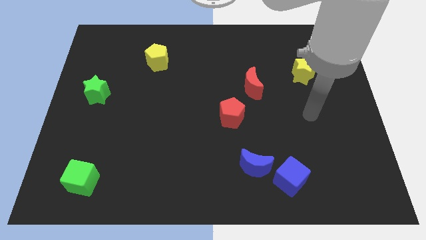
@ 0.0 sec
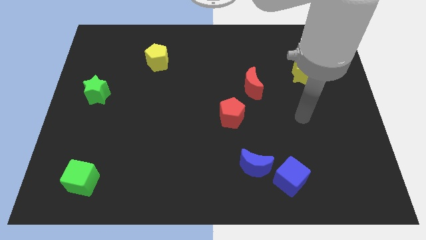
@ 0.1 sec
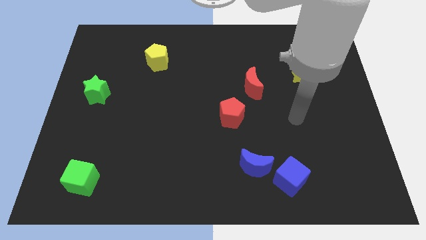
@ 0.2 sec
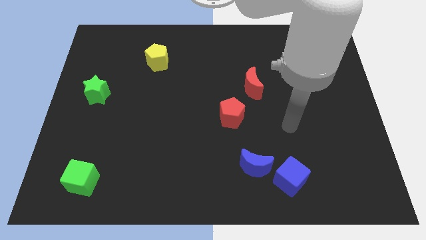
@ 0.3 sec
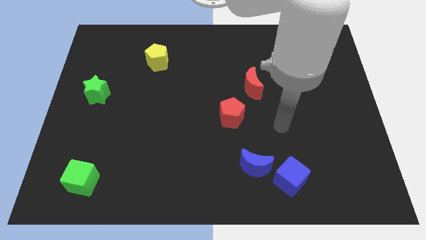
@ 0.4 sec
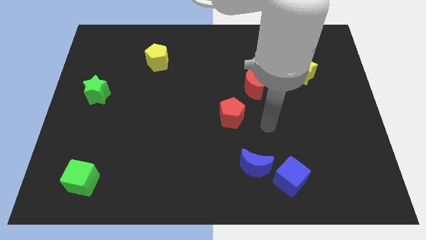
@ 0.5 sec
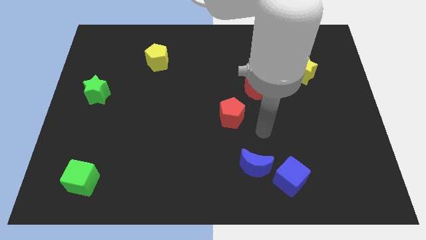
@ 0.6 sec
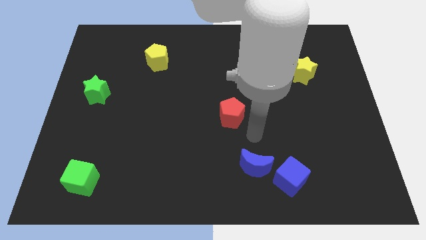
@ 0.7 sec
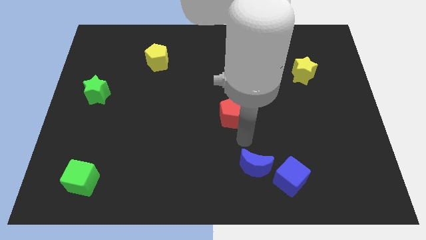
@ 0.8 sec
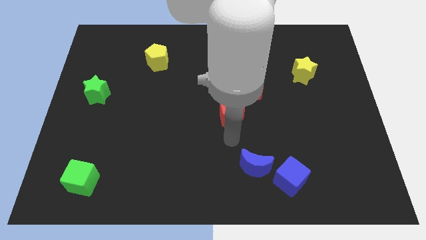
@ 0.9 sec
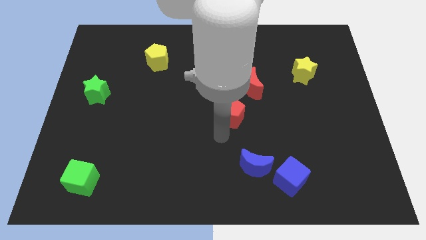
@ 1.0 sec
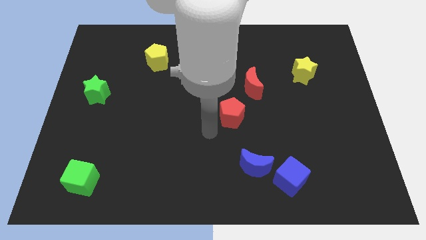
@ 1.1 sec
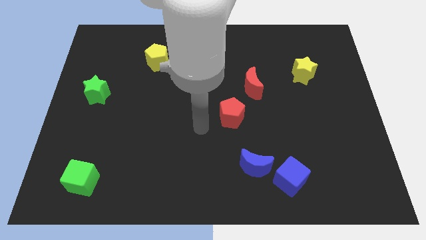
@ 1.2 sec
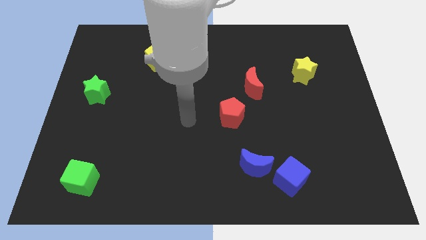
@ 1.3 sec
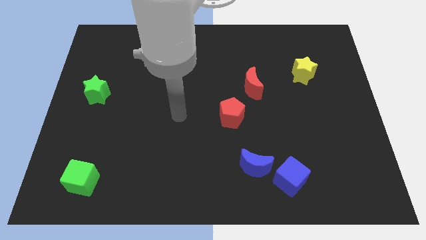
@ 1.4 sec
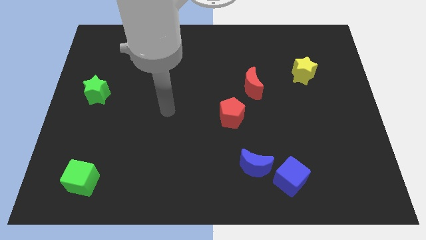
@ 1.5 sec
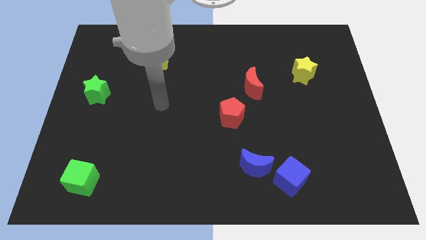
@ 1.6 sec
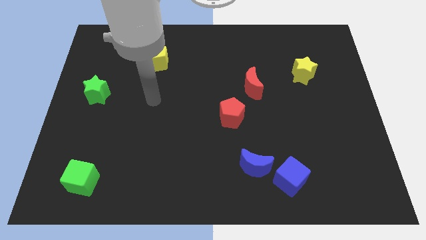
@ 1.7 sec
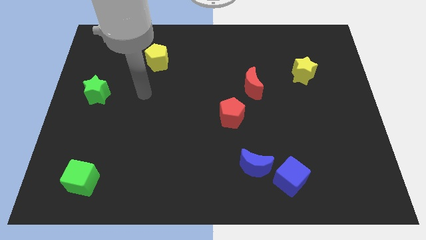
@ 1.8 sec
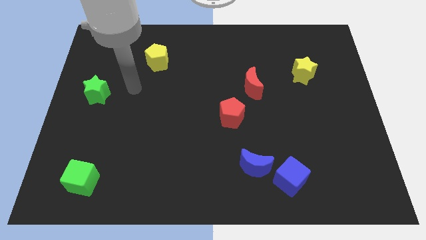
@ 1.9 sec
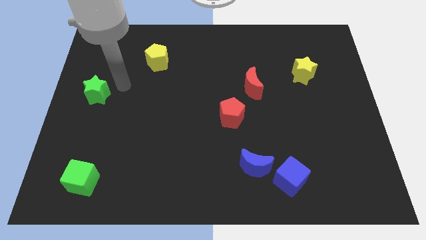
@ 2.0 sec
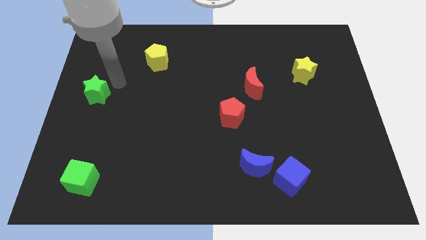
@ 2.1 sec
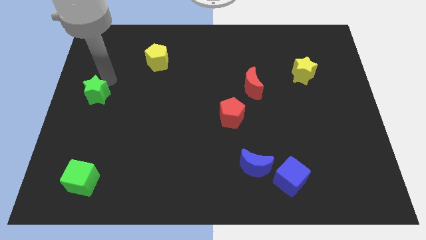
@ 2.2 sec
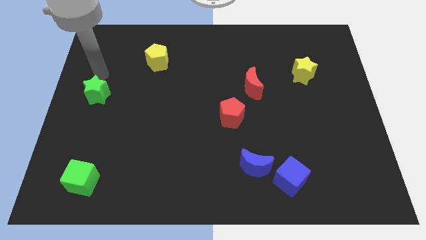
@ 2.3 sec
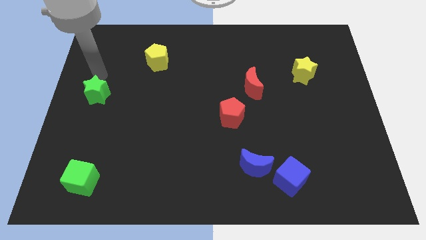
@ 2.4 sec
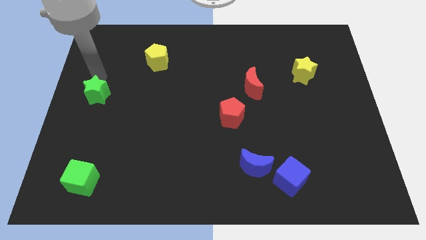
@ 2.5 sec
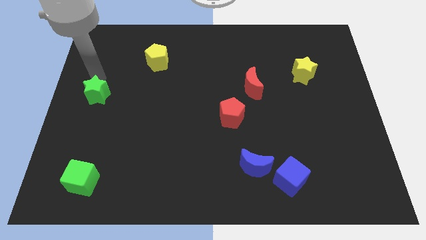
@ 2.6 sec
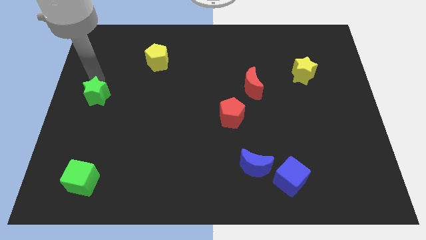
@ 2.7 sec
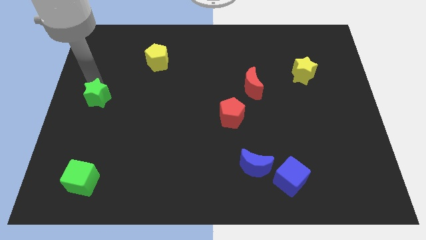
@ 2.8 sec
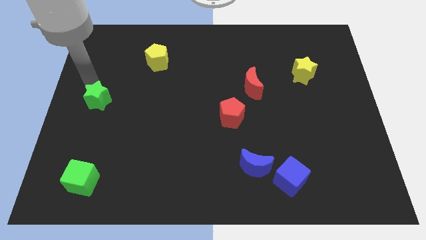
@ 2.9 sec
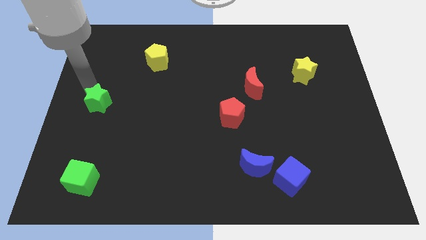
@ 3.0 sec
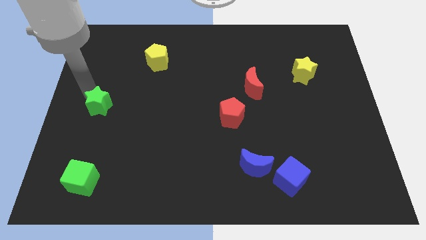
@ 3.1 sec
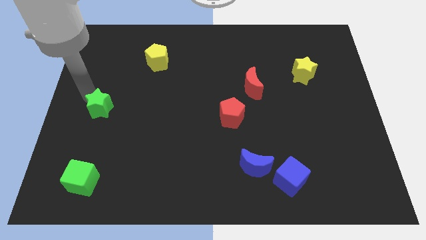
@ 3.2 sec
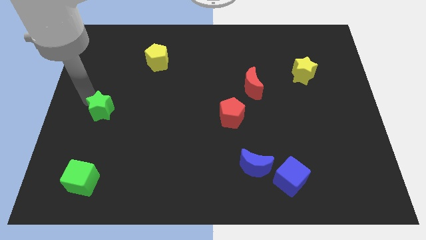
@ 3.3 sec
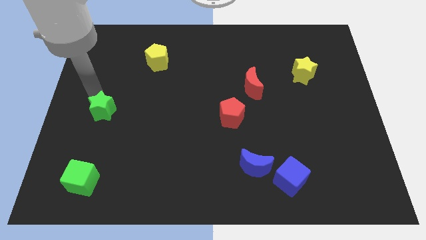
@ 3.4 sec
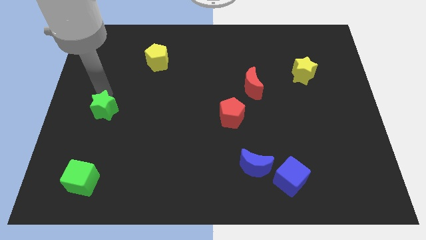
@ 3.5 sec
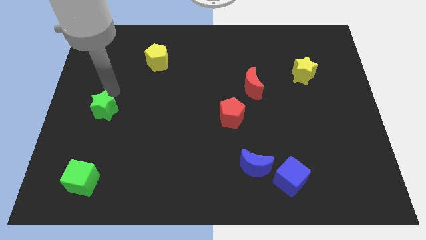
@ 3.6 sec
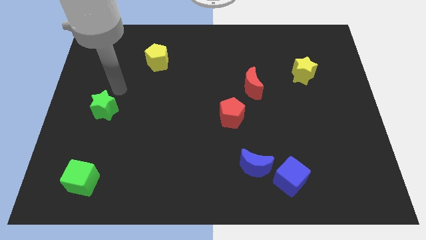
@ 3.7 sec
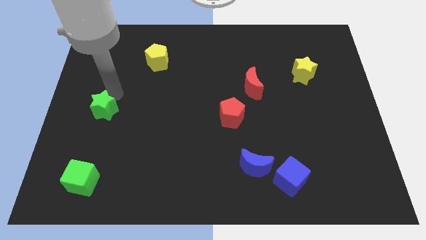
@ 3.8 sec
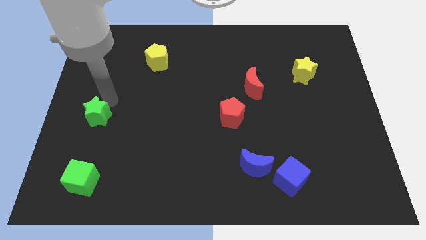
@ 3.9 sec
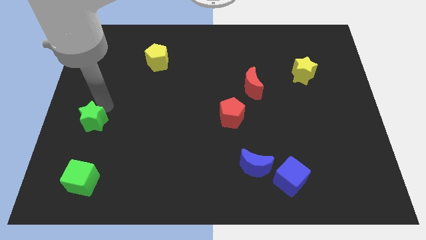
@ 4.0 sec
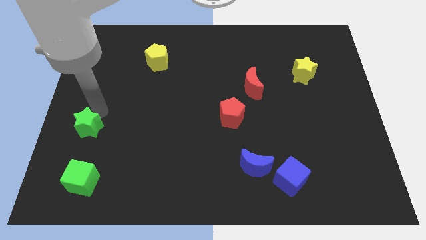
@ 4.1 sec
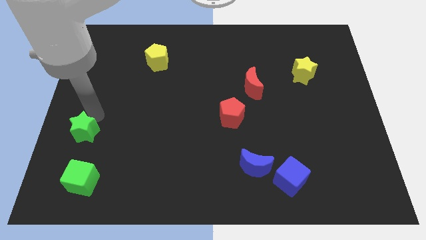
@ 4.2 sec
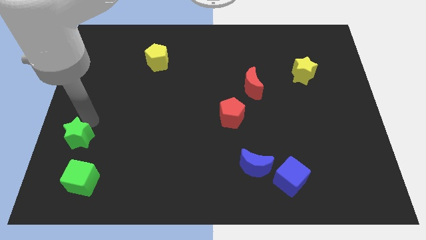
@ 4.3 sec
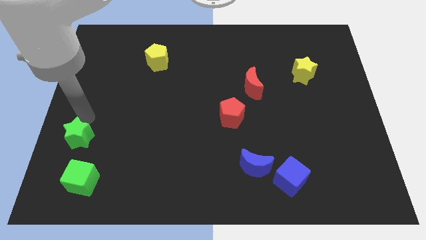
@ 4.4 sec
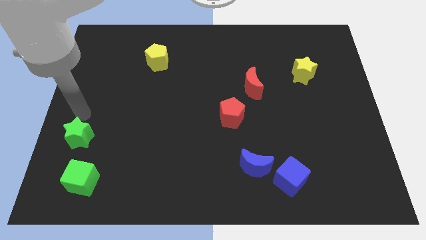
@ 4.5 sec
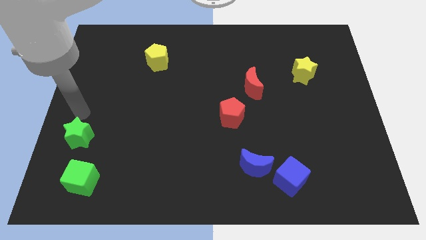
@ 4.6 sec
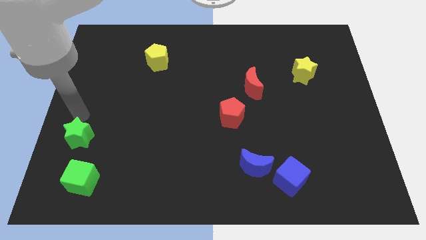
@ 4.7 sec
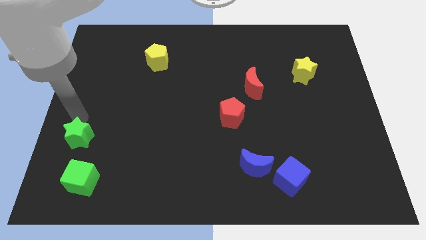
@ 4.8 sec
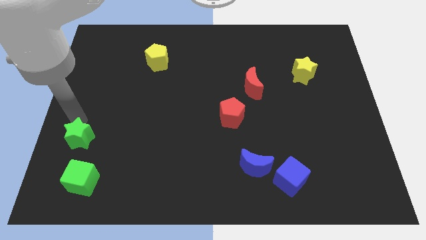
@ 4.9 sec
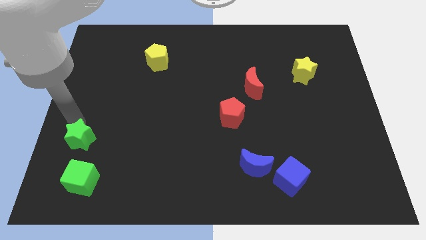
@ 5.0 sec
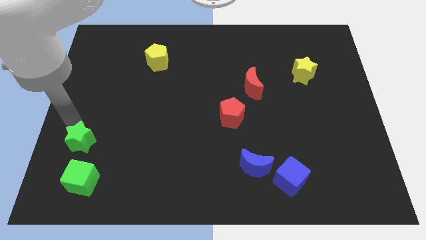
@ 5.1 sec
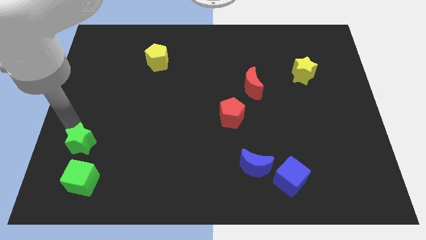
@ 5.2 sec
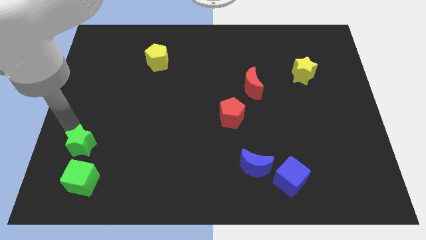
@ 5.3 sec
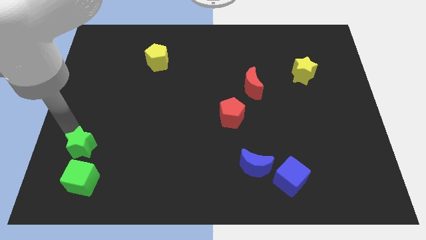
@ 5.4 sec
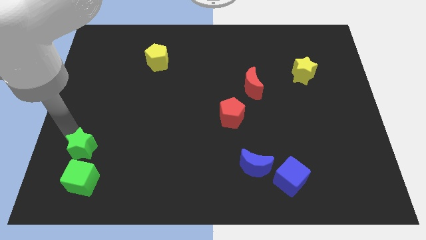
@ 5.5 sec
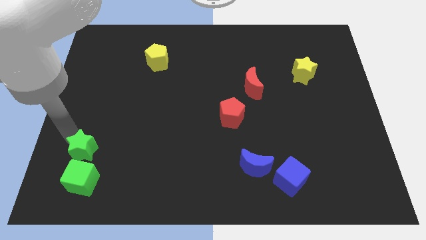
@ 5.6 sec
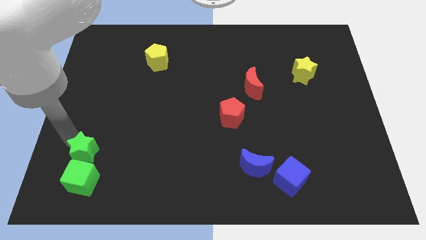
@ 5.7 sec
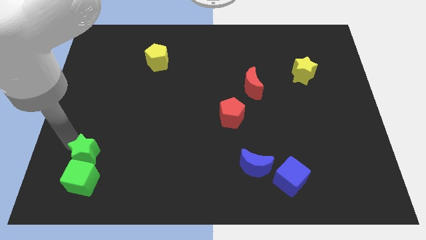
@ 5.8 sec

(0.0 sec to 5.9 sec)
move the green star close to the green cube
